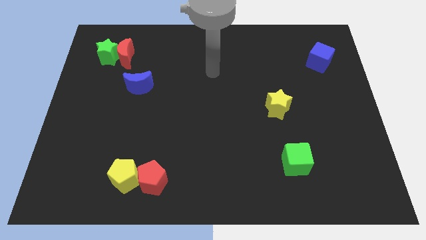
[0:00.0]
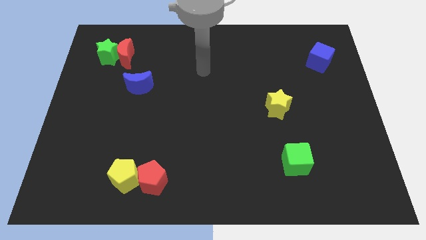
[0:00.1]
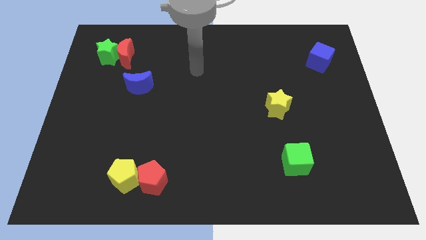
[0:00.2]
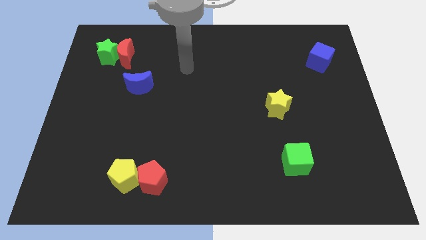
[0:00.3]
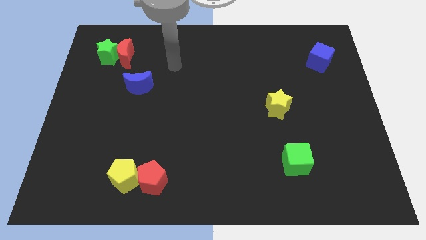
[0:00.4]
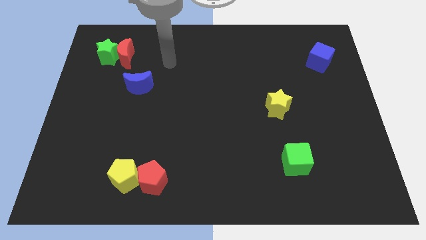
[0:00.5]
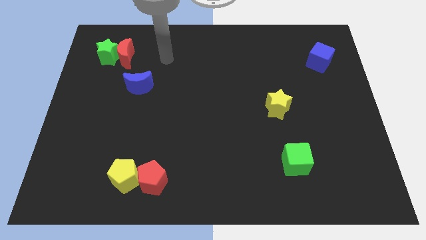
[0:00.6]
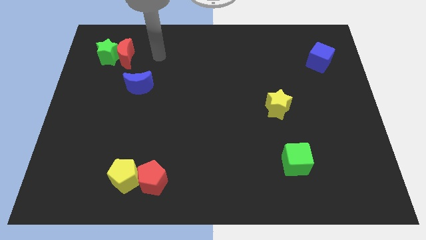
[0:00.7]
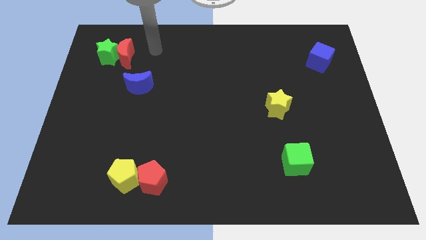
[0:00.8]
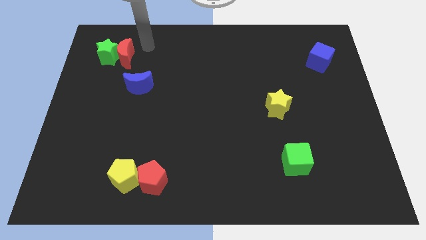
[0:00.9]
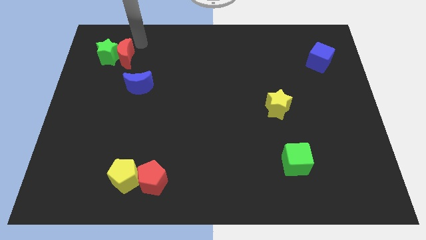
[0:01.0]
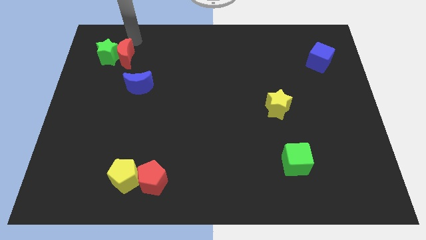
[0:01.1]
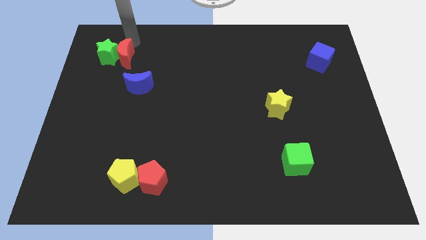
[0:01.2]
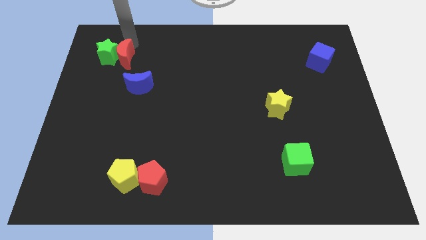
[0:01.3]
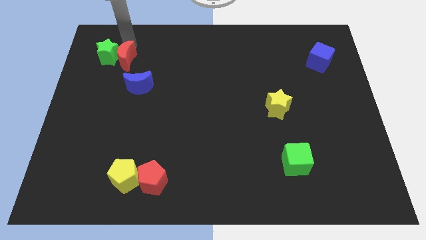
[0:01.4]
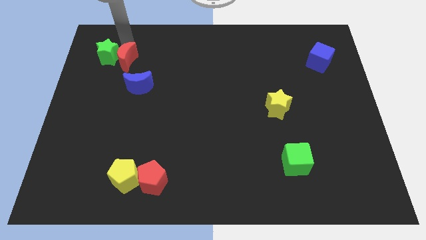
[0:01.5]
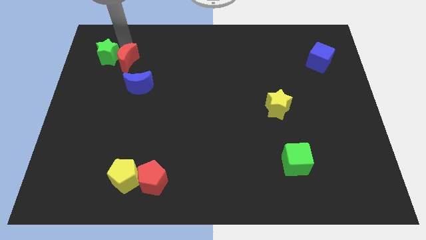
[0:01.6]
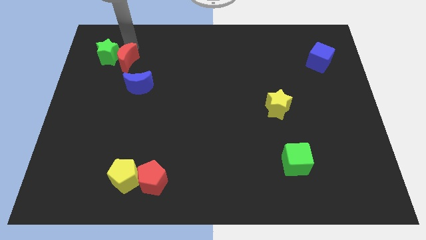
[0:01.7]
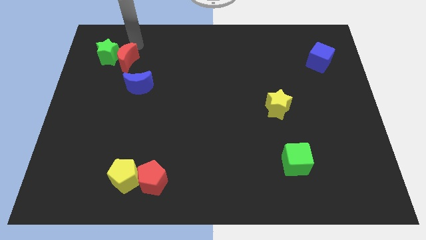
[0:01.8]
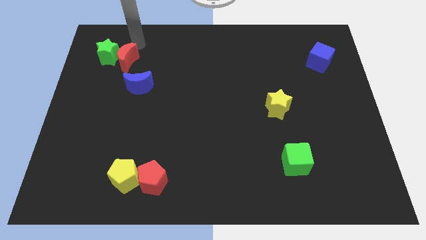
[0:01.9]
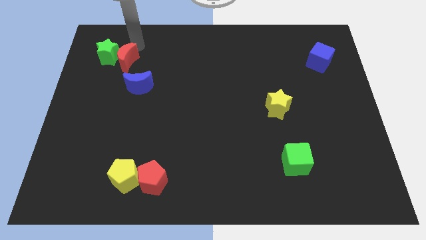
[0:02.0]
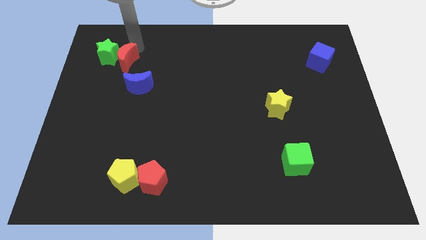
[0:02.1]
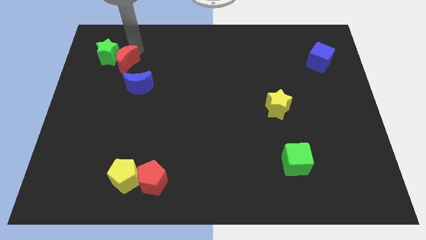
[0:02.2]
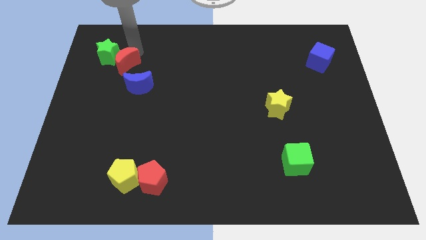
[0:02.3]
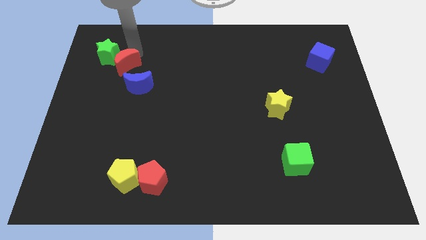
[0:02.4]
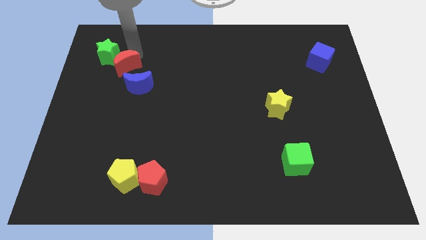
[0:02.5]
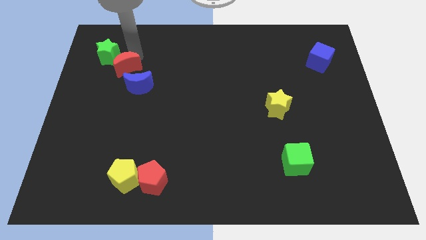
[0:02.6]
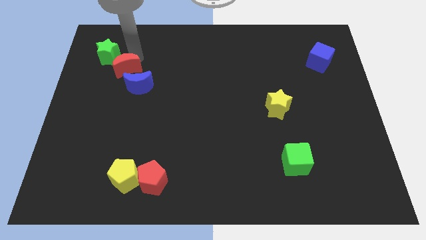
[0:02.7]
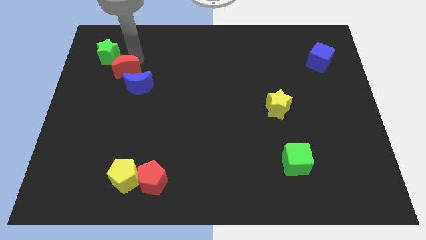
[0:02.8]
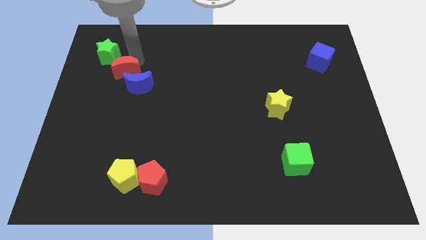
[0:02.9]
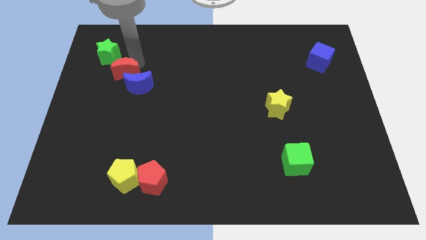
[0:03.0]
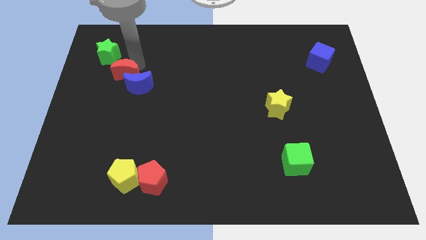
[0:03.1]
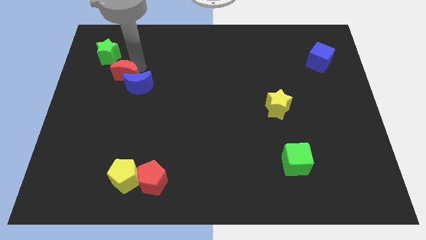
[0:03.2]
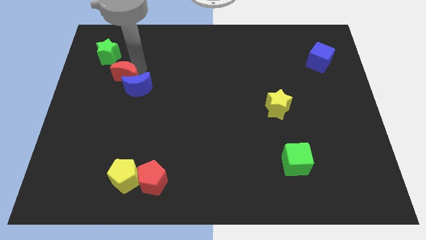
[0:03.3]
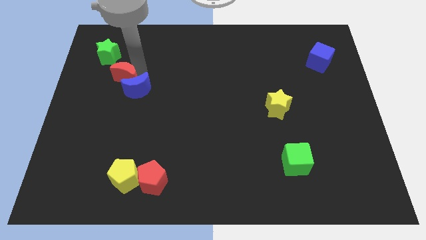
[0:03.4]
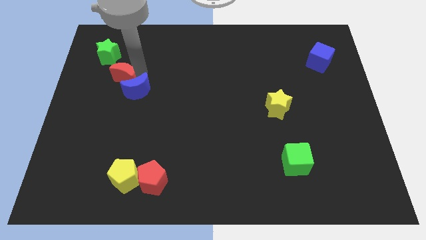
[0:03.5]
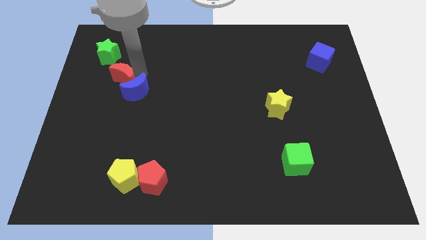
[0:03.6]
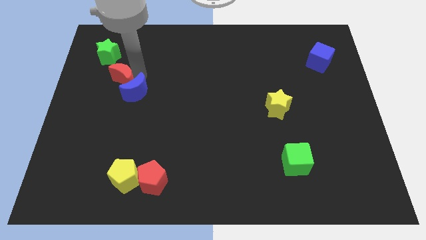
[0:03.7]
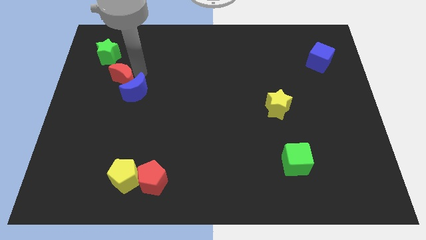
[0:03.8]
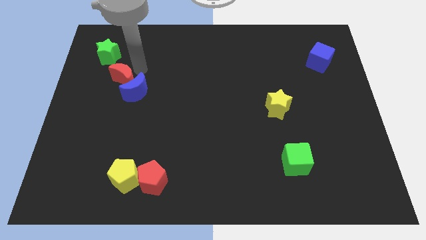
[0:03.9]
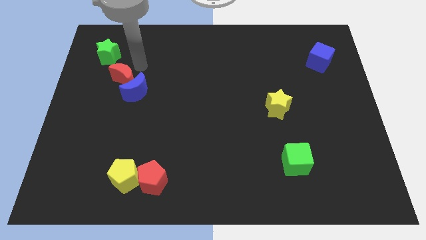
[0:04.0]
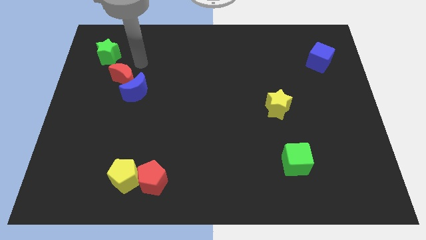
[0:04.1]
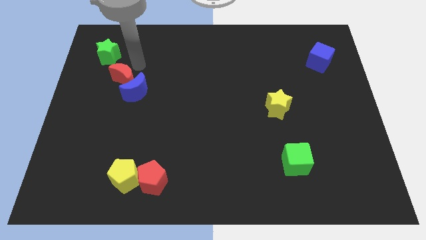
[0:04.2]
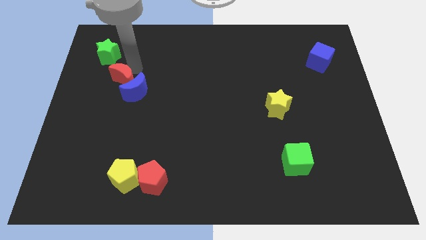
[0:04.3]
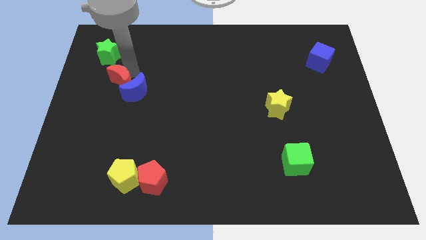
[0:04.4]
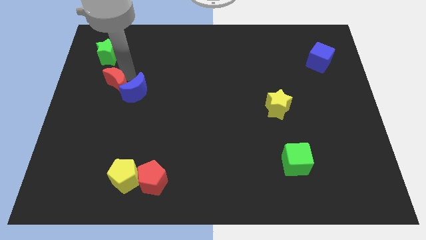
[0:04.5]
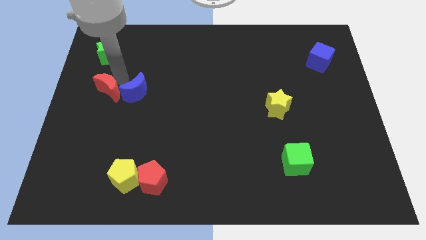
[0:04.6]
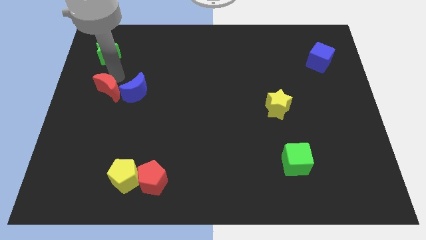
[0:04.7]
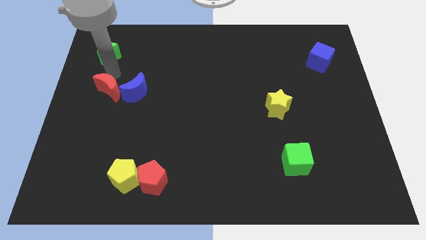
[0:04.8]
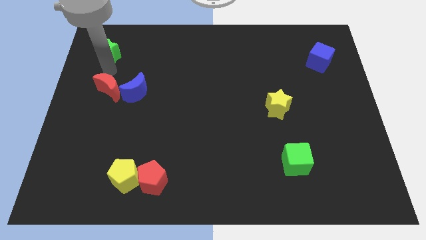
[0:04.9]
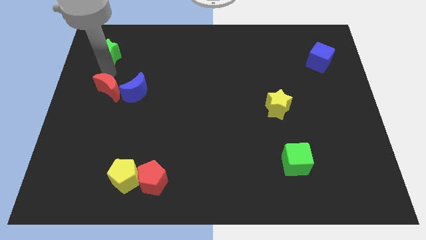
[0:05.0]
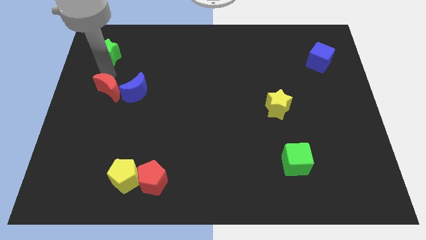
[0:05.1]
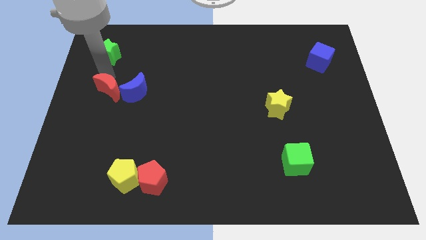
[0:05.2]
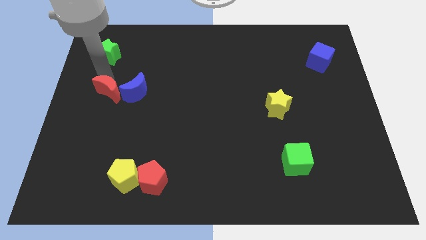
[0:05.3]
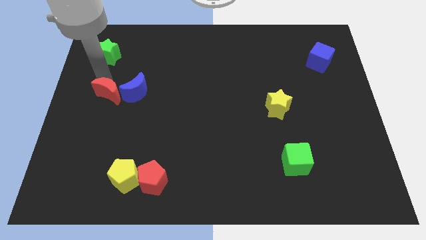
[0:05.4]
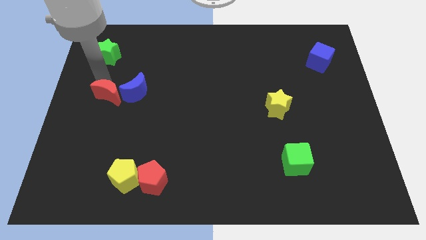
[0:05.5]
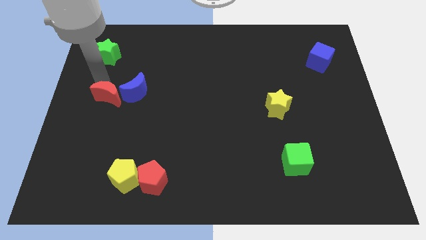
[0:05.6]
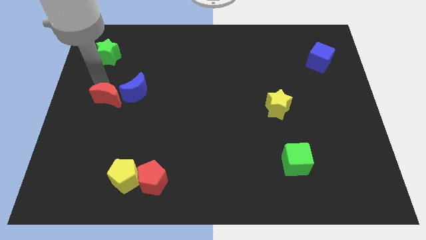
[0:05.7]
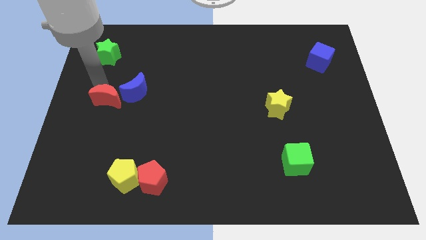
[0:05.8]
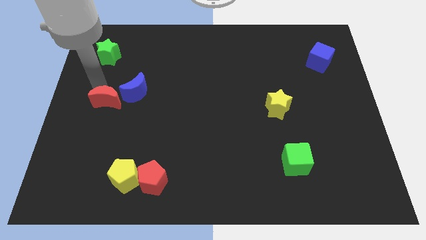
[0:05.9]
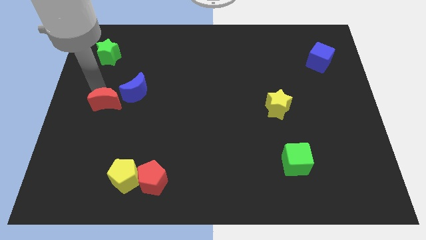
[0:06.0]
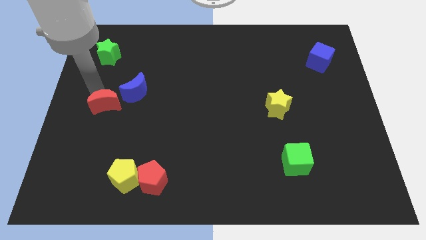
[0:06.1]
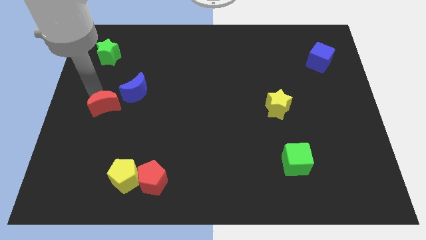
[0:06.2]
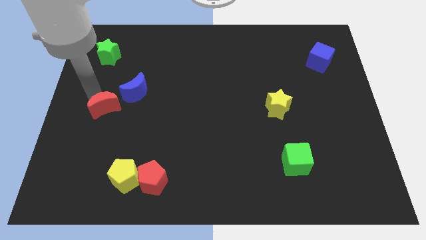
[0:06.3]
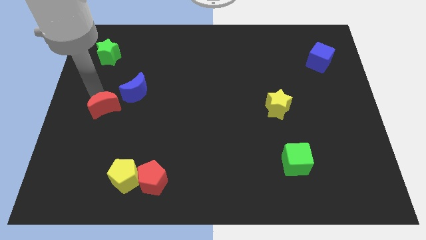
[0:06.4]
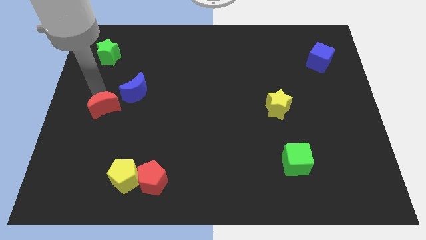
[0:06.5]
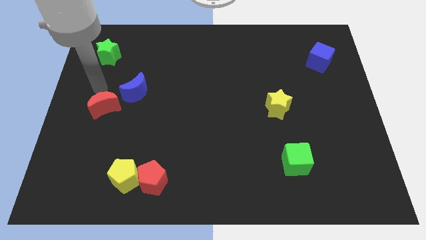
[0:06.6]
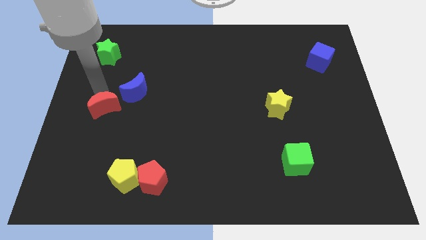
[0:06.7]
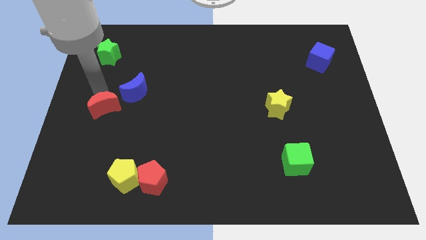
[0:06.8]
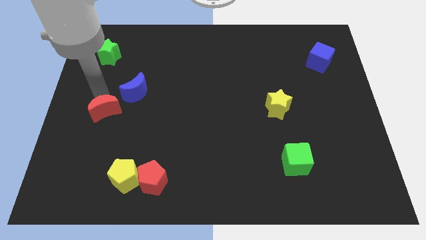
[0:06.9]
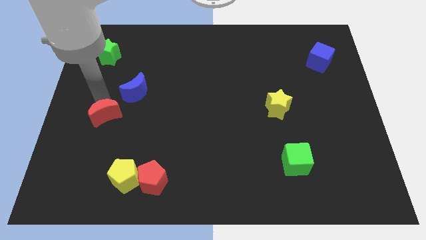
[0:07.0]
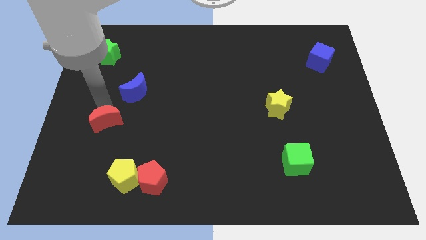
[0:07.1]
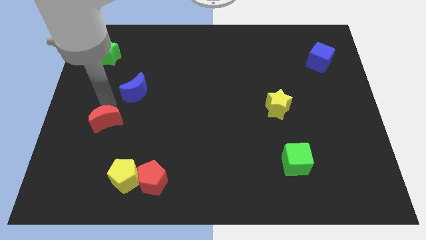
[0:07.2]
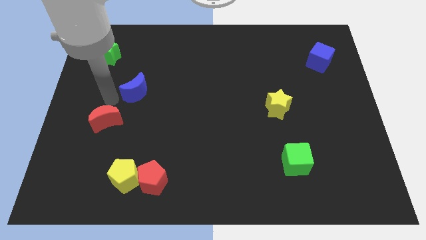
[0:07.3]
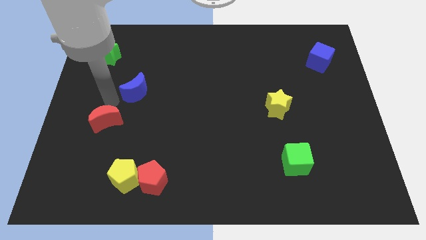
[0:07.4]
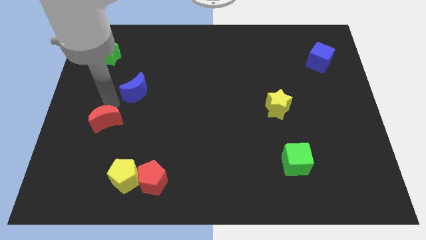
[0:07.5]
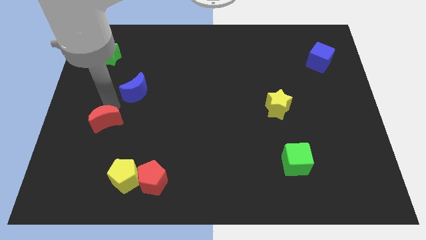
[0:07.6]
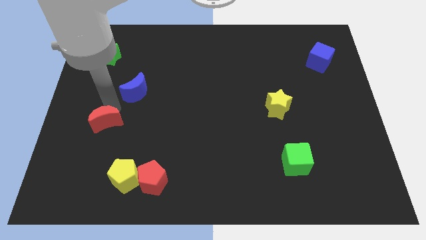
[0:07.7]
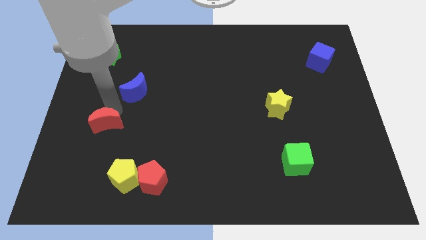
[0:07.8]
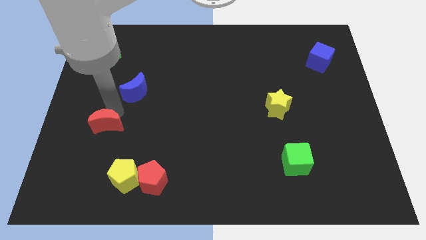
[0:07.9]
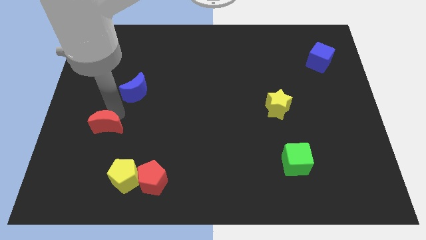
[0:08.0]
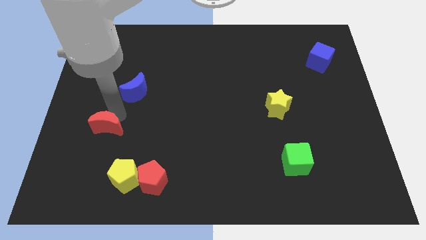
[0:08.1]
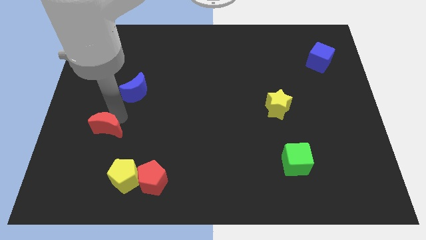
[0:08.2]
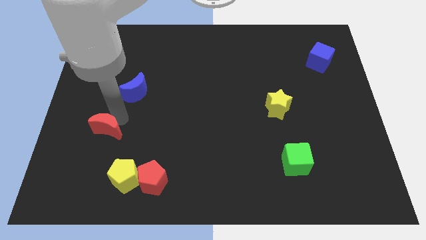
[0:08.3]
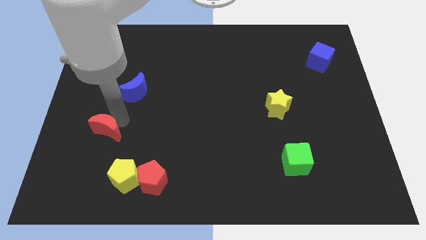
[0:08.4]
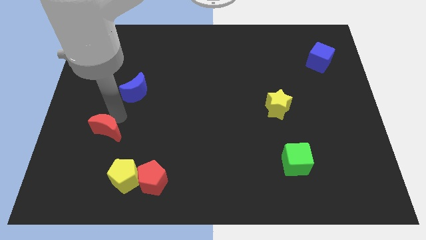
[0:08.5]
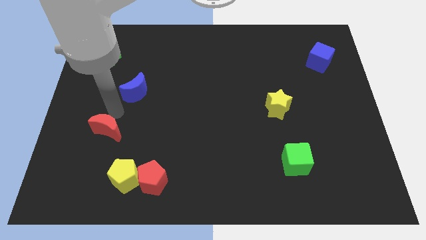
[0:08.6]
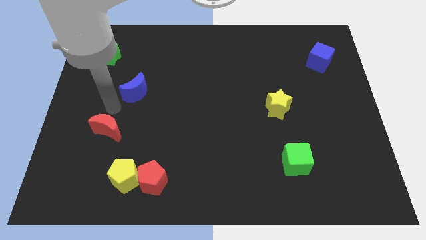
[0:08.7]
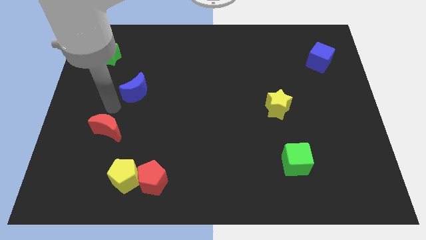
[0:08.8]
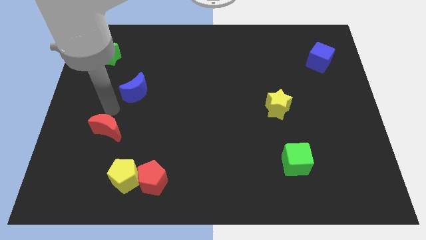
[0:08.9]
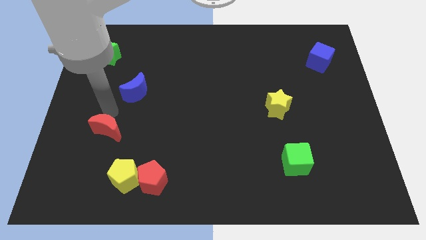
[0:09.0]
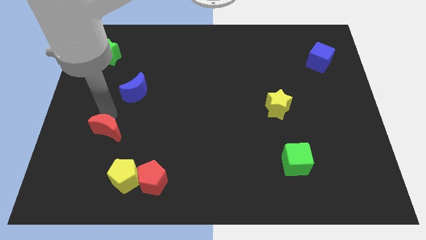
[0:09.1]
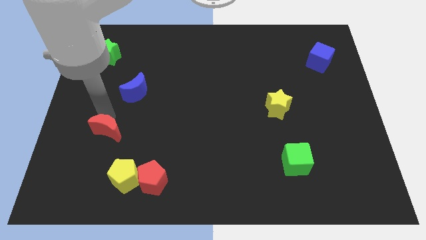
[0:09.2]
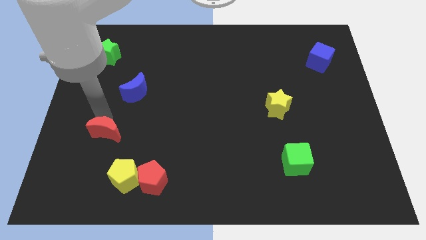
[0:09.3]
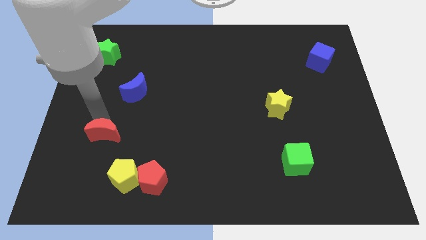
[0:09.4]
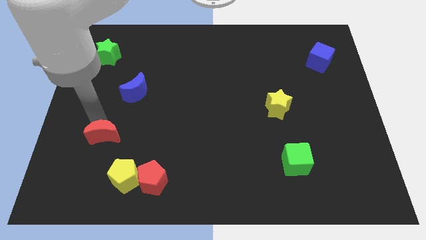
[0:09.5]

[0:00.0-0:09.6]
put the red moon to the top left side of the yellow pentagon
